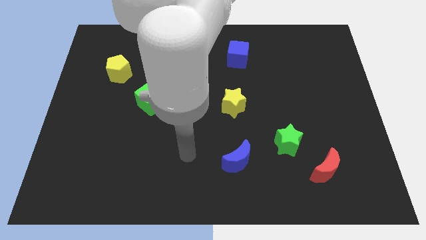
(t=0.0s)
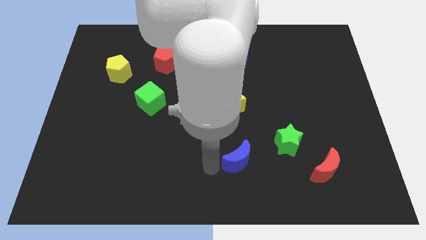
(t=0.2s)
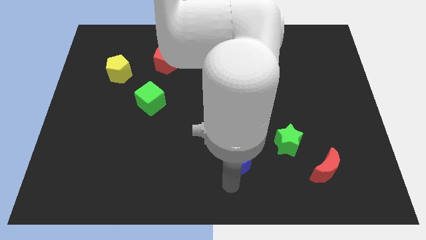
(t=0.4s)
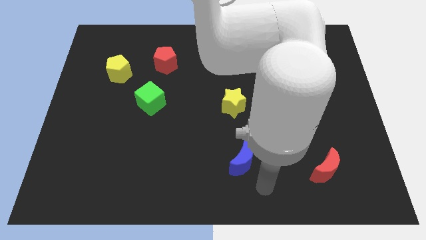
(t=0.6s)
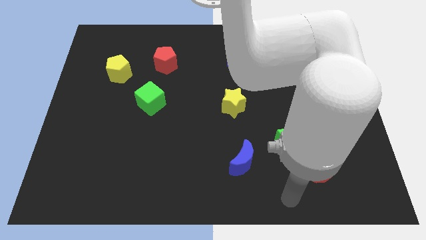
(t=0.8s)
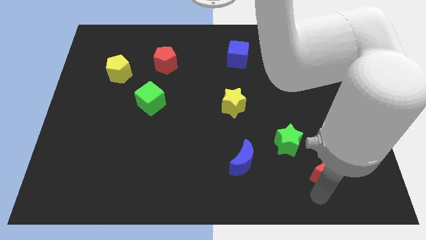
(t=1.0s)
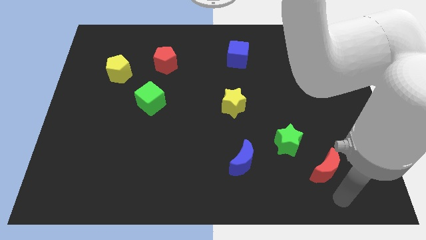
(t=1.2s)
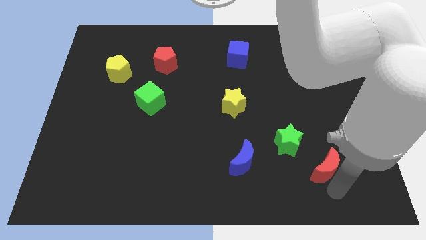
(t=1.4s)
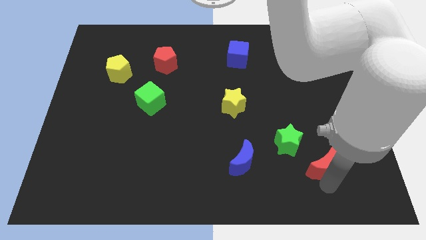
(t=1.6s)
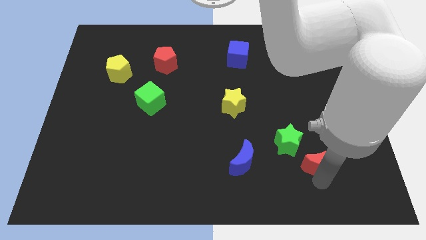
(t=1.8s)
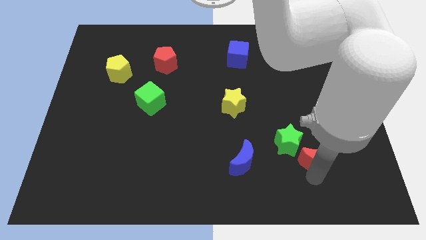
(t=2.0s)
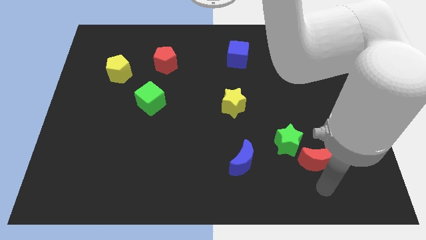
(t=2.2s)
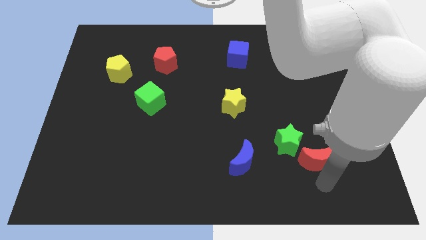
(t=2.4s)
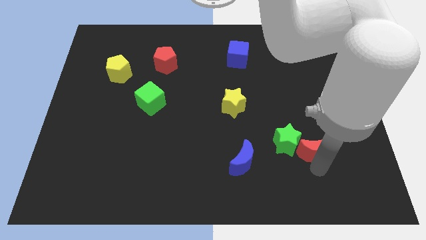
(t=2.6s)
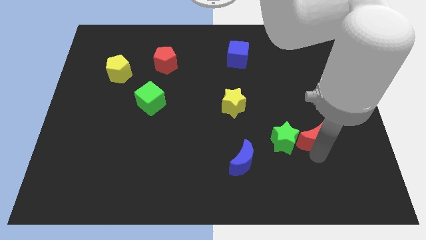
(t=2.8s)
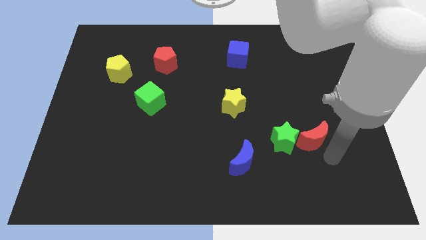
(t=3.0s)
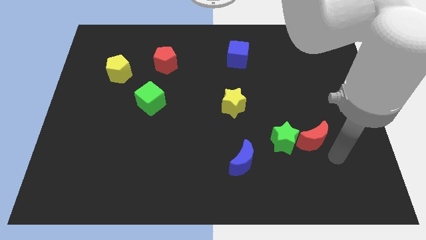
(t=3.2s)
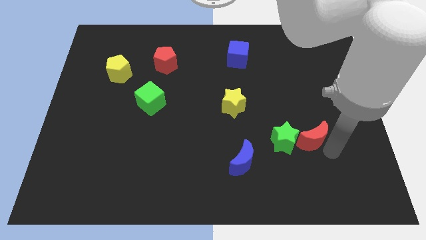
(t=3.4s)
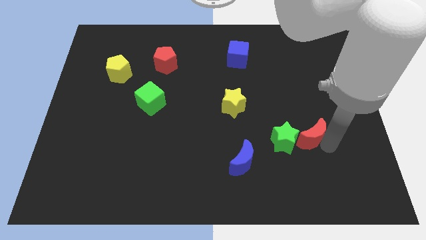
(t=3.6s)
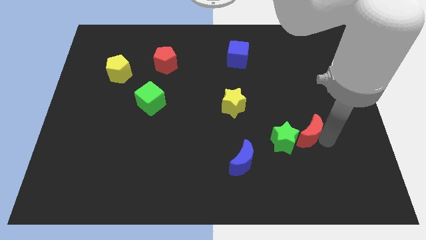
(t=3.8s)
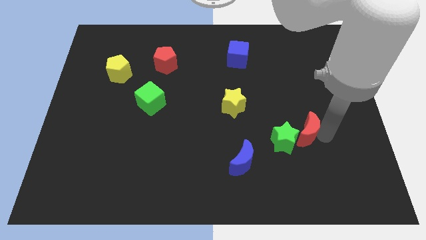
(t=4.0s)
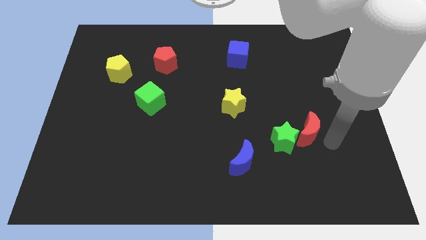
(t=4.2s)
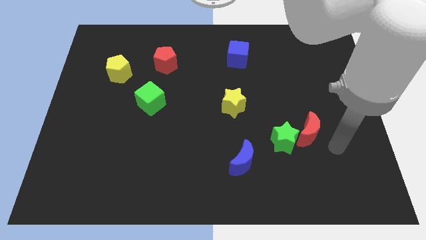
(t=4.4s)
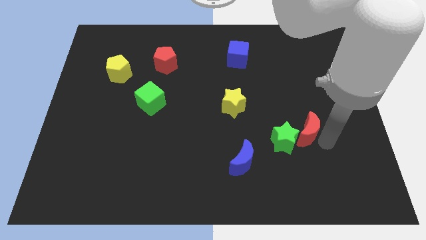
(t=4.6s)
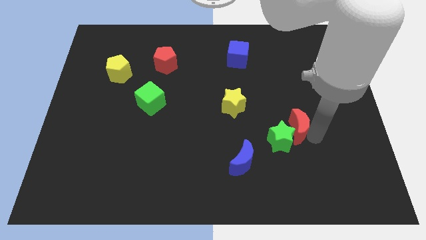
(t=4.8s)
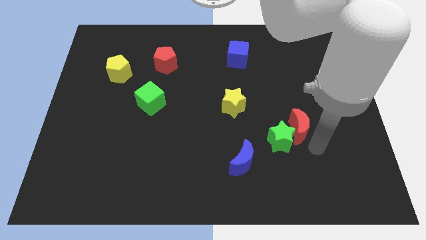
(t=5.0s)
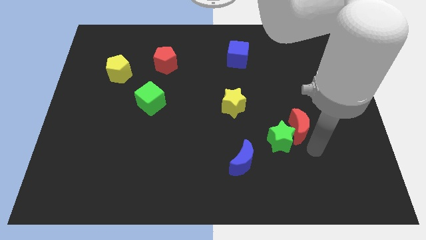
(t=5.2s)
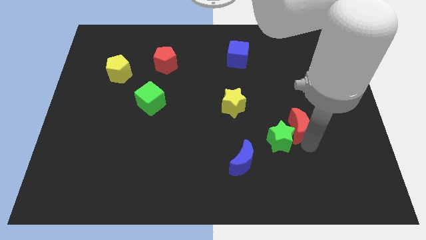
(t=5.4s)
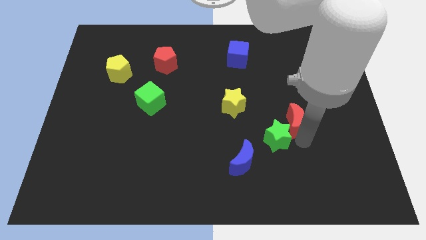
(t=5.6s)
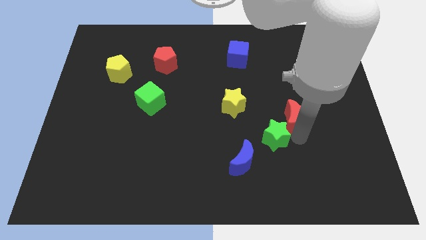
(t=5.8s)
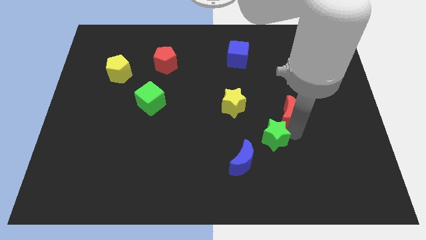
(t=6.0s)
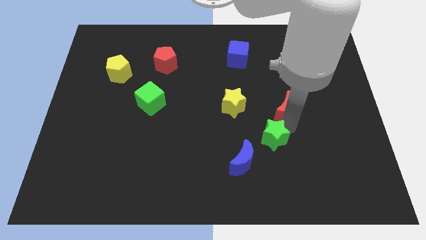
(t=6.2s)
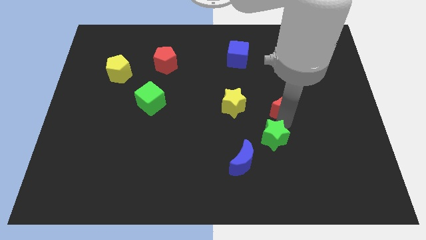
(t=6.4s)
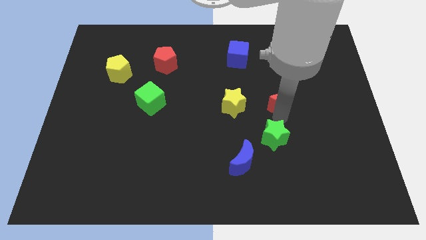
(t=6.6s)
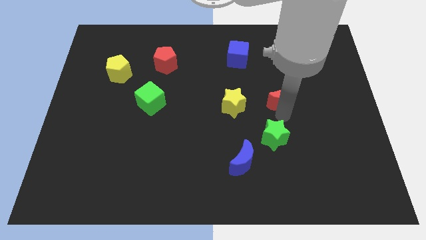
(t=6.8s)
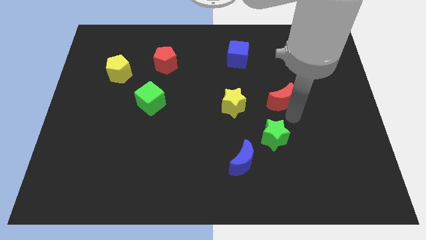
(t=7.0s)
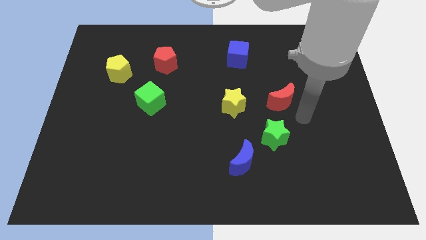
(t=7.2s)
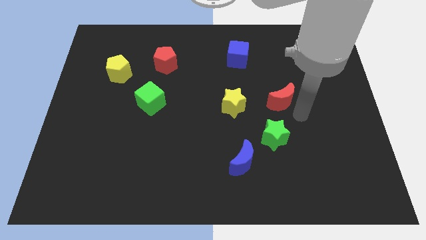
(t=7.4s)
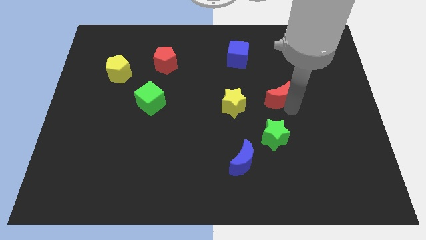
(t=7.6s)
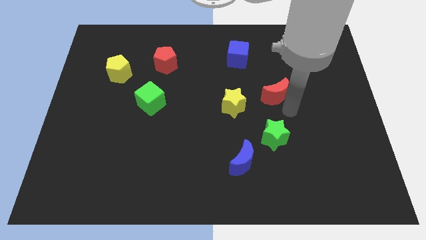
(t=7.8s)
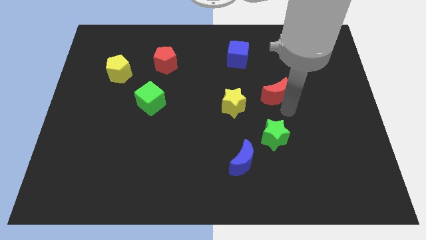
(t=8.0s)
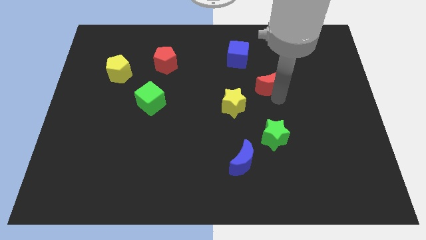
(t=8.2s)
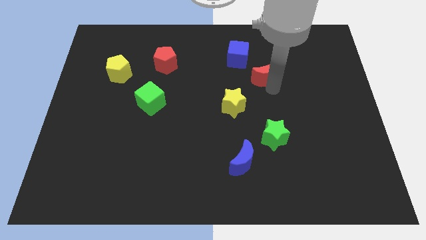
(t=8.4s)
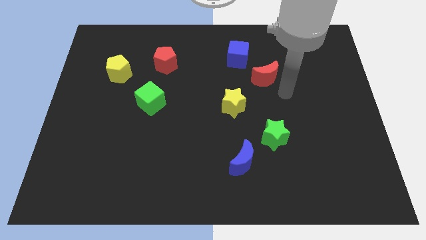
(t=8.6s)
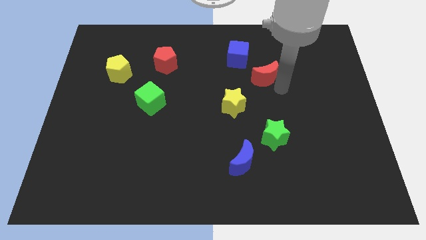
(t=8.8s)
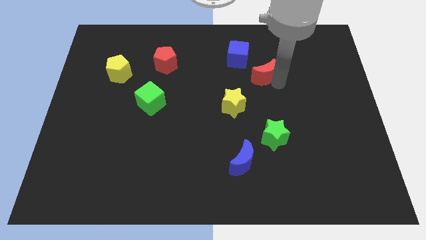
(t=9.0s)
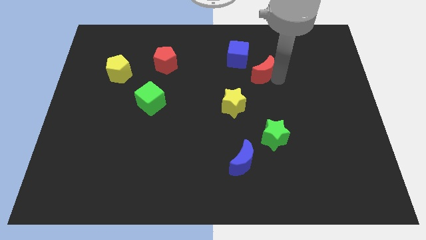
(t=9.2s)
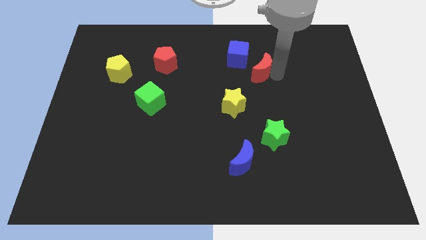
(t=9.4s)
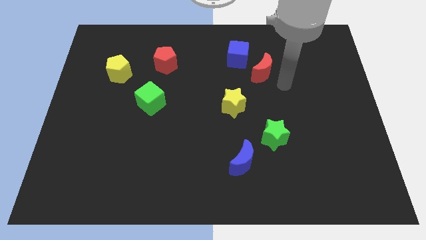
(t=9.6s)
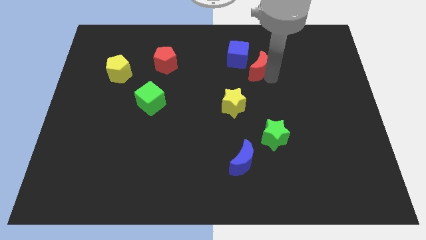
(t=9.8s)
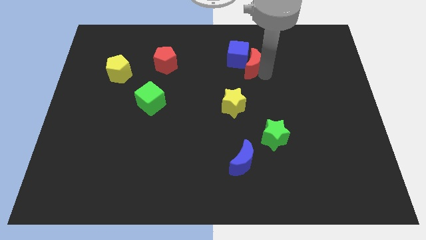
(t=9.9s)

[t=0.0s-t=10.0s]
put the red moon to the blue cube

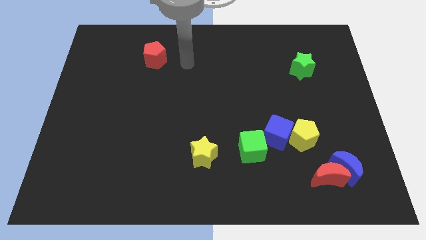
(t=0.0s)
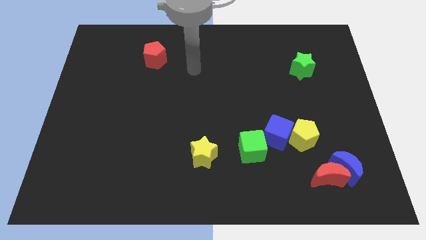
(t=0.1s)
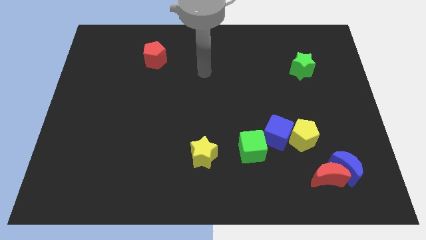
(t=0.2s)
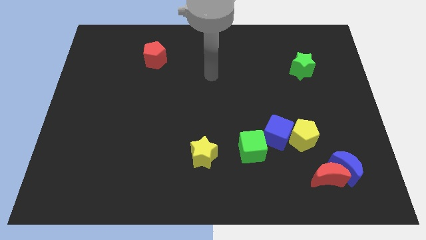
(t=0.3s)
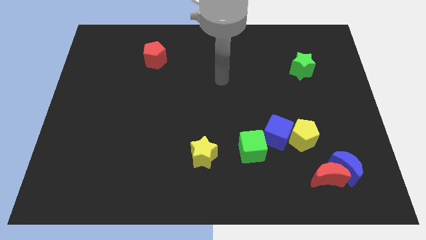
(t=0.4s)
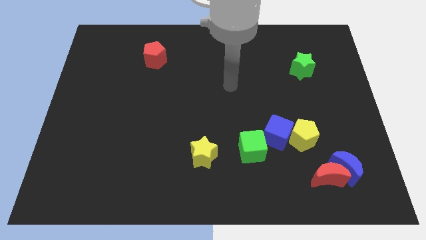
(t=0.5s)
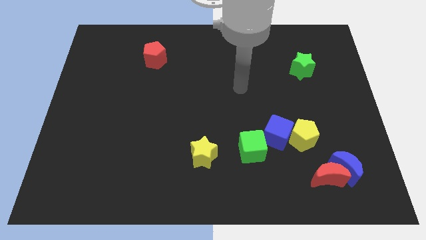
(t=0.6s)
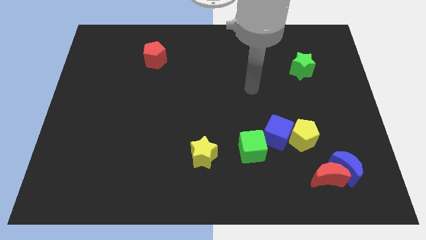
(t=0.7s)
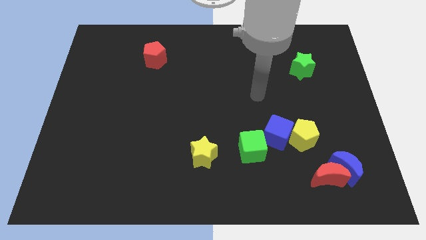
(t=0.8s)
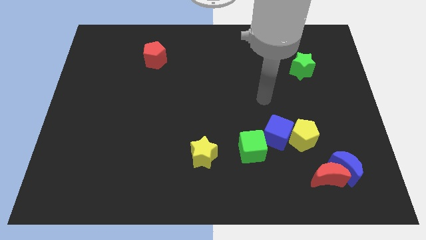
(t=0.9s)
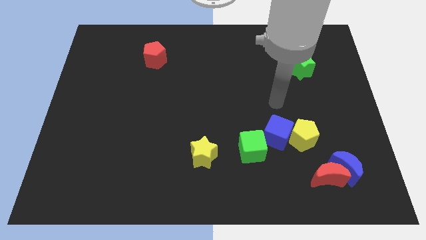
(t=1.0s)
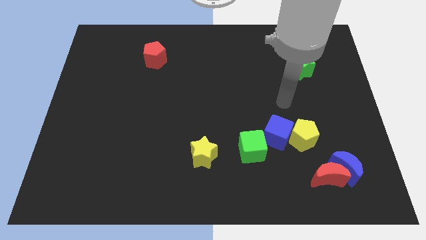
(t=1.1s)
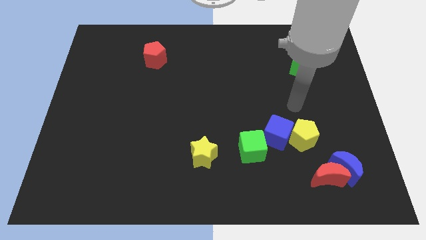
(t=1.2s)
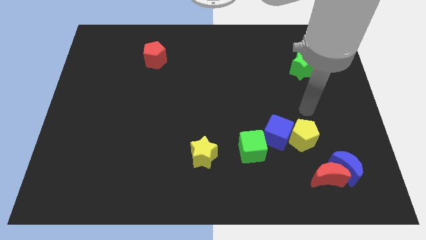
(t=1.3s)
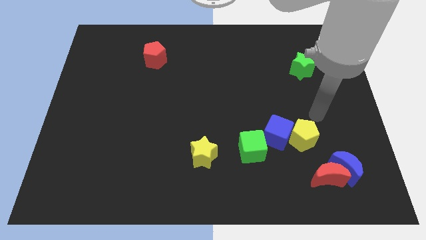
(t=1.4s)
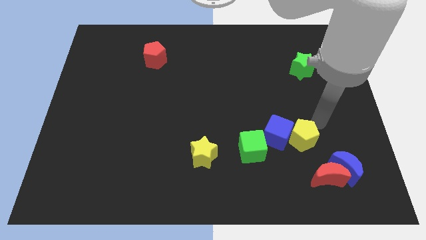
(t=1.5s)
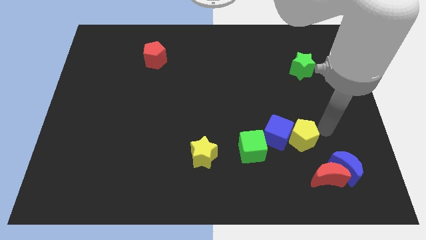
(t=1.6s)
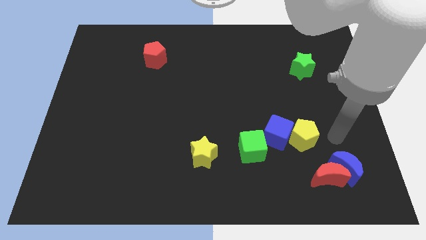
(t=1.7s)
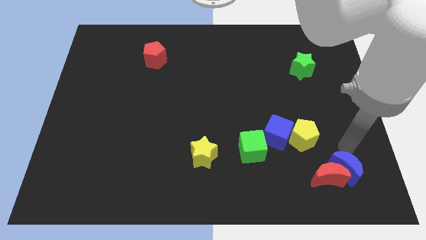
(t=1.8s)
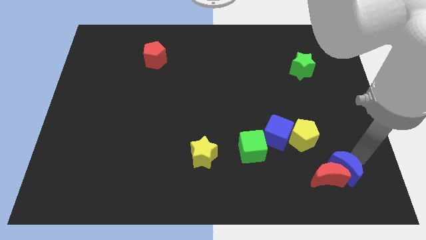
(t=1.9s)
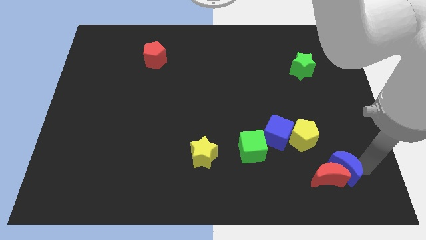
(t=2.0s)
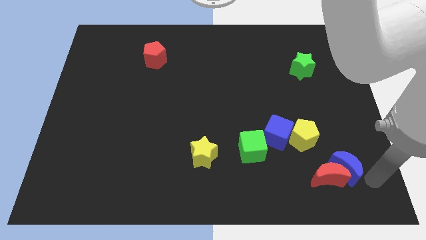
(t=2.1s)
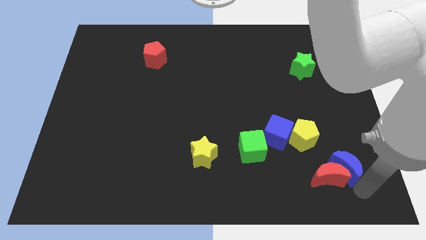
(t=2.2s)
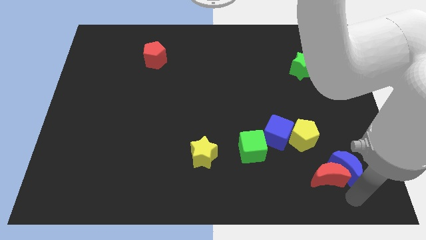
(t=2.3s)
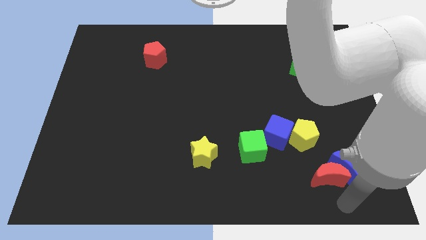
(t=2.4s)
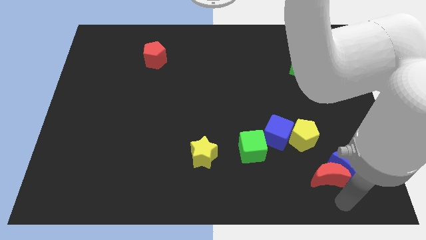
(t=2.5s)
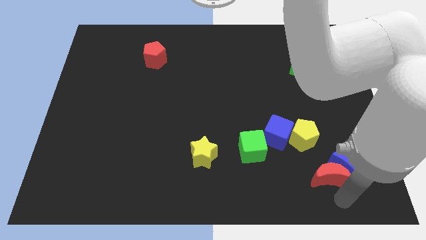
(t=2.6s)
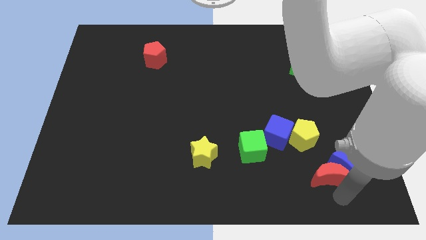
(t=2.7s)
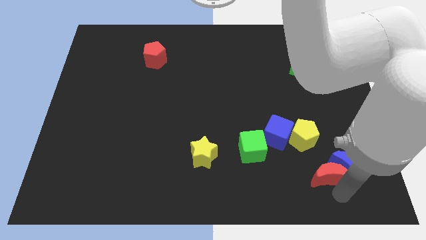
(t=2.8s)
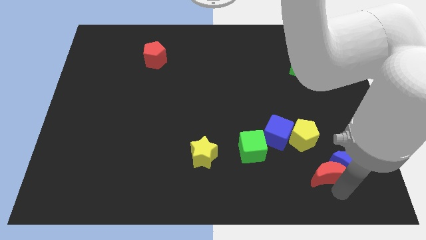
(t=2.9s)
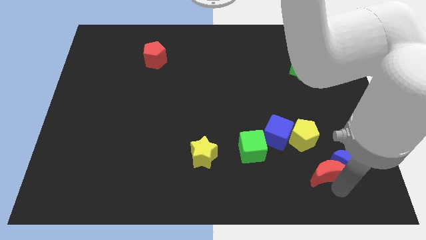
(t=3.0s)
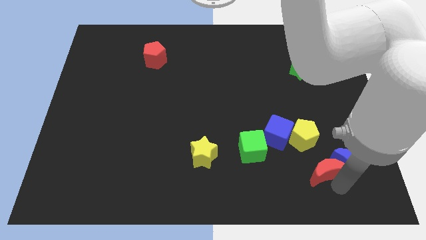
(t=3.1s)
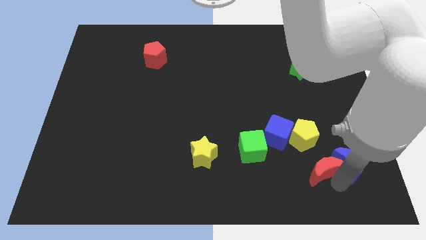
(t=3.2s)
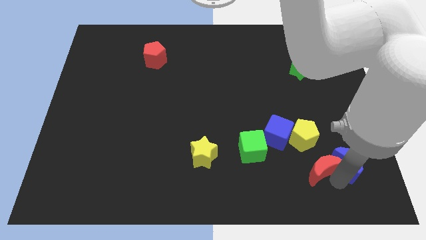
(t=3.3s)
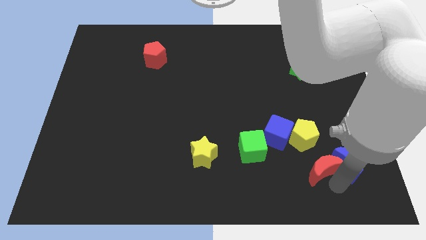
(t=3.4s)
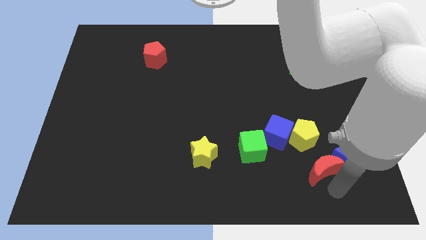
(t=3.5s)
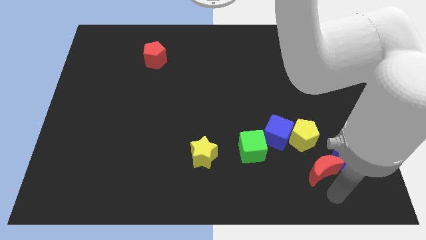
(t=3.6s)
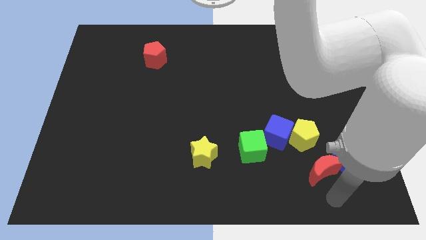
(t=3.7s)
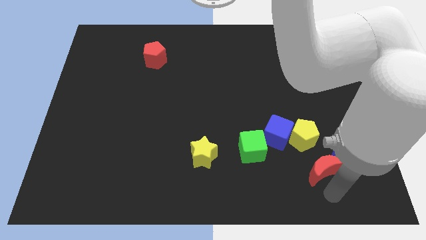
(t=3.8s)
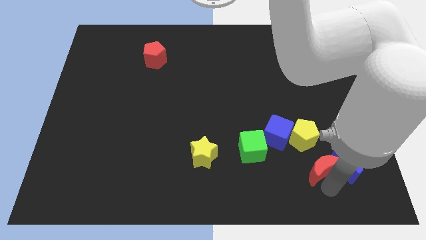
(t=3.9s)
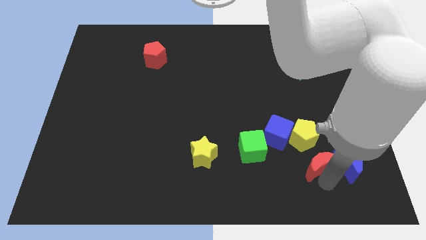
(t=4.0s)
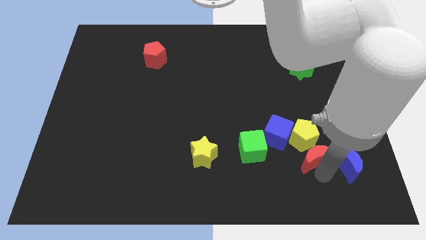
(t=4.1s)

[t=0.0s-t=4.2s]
push the red moon close to the yellow pentagon
